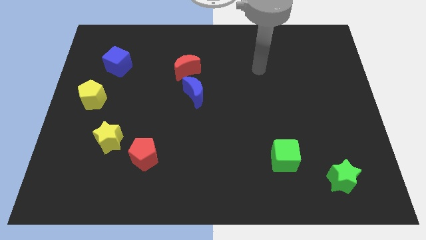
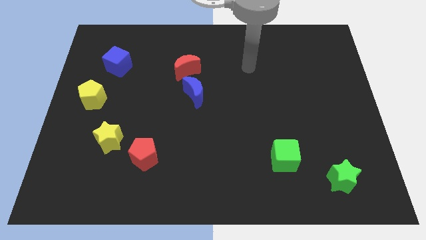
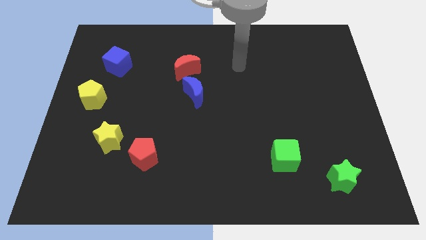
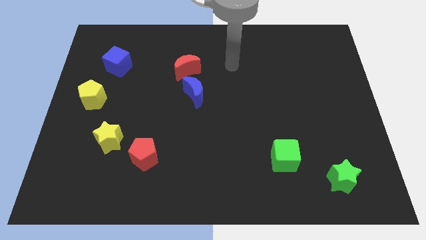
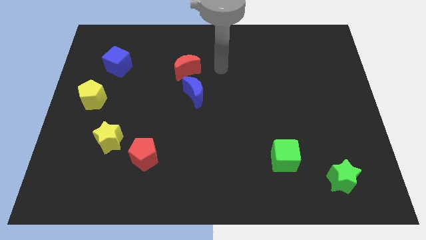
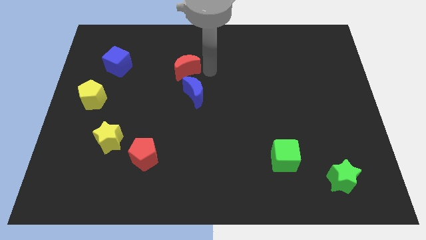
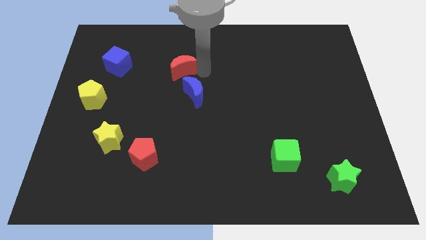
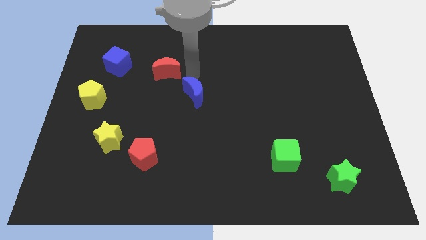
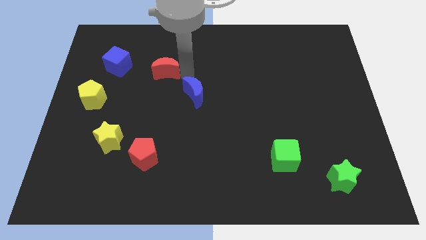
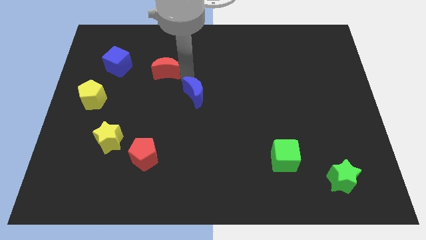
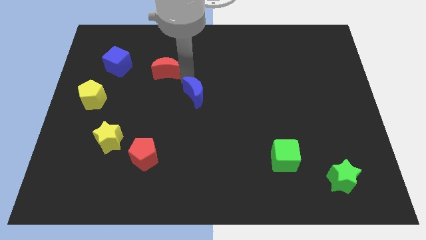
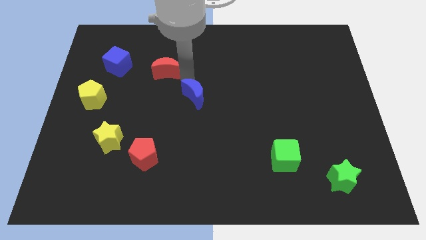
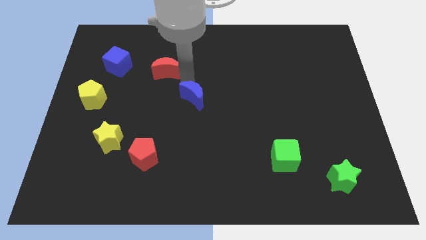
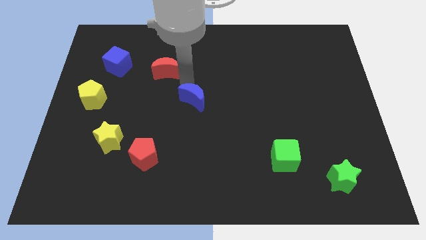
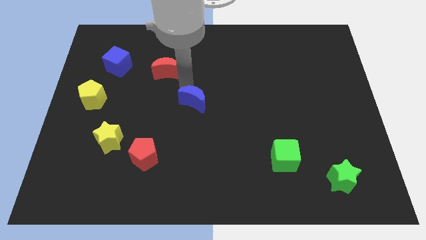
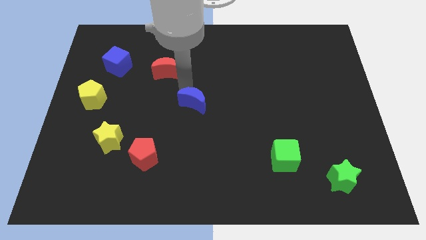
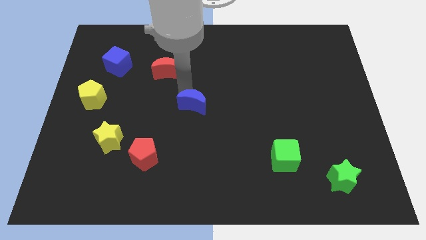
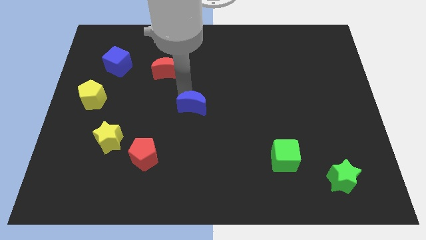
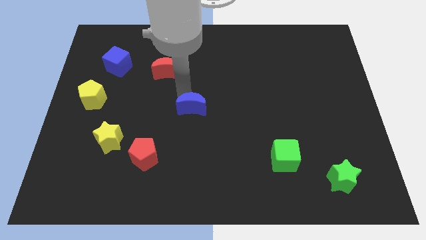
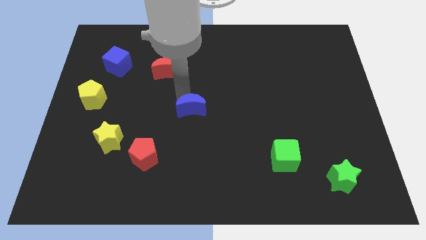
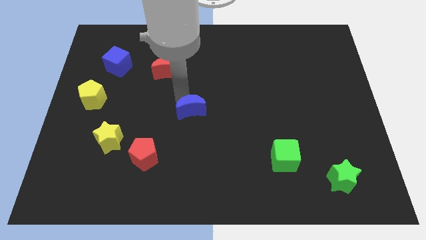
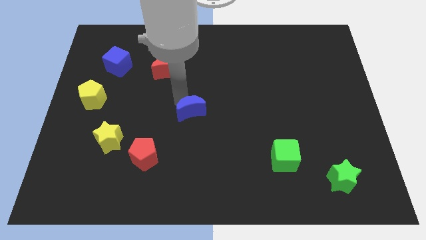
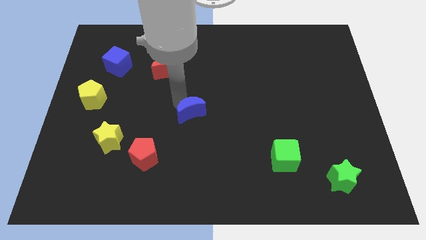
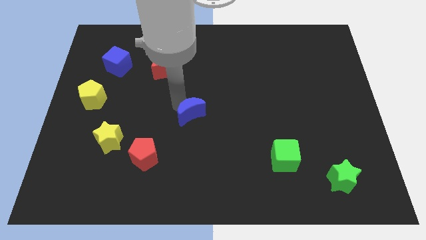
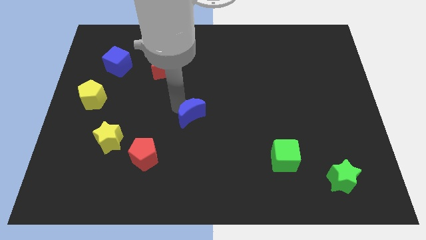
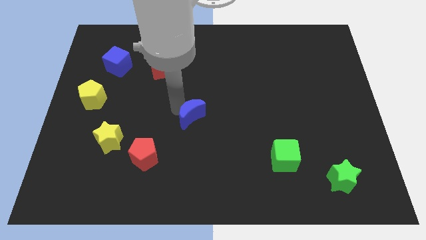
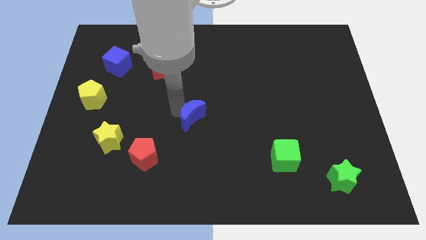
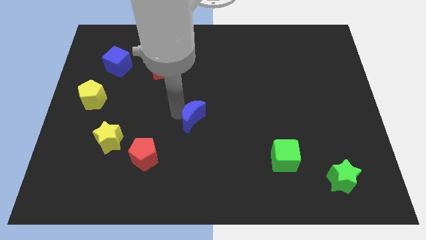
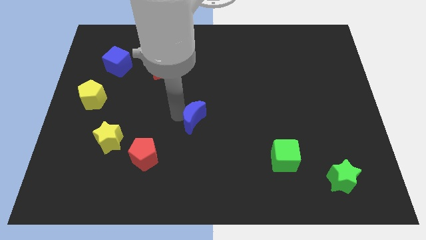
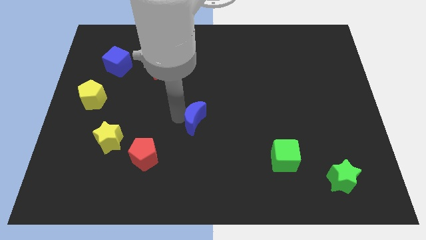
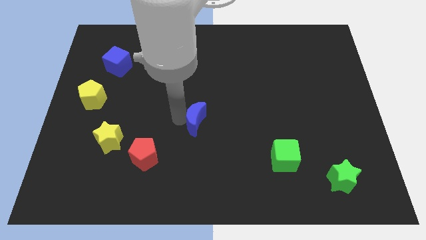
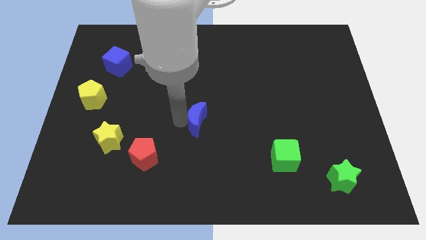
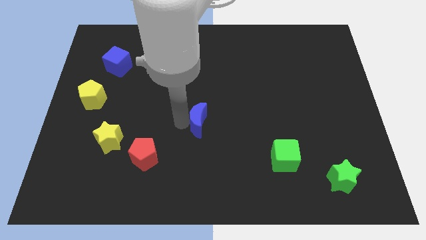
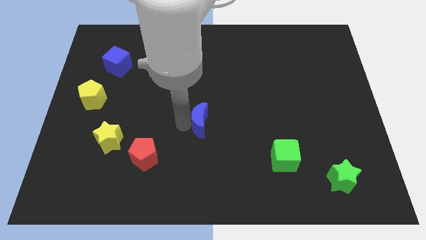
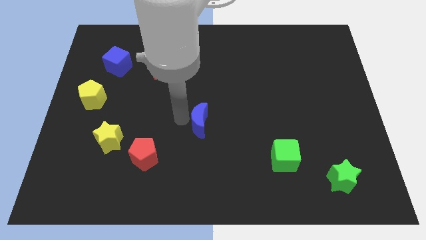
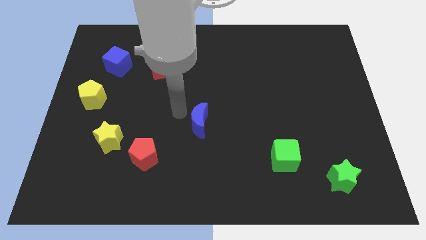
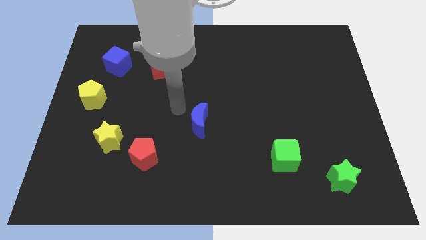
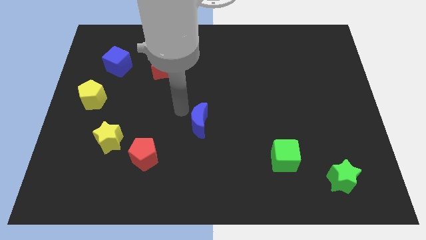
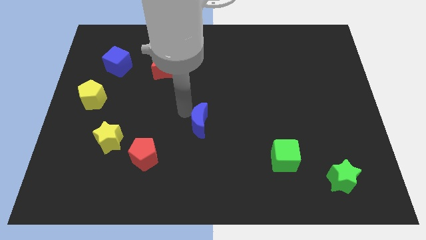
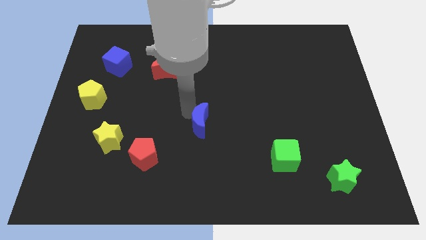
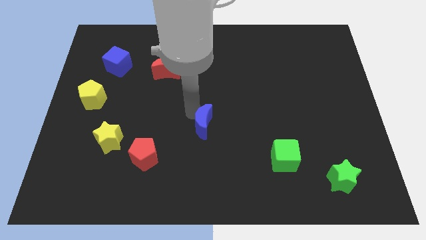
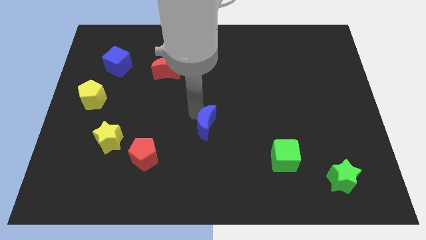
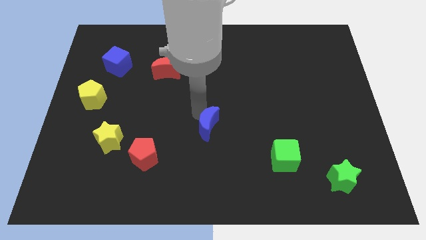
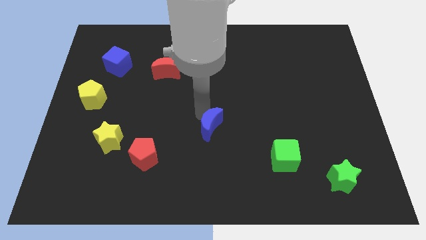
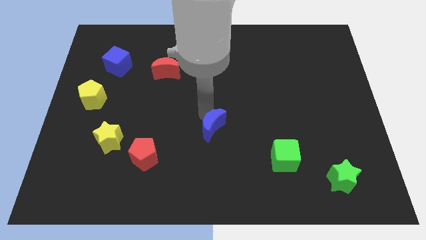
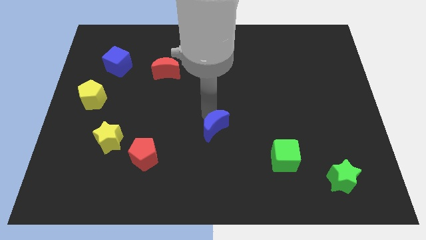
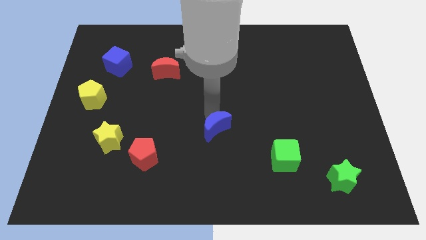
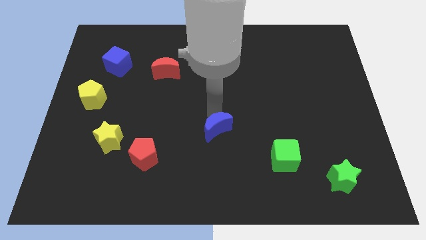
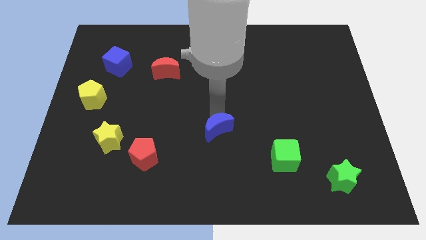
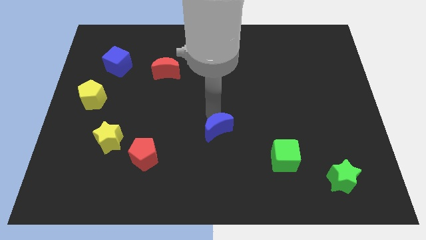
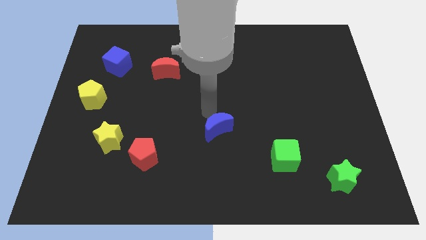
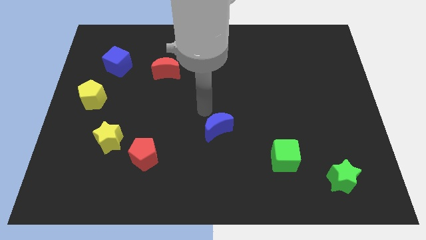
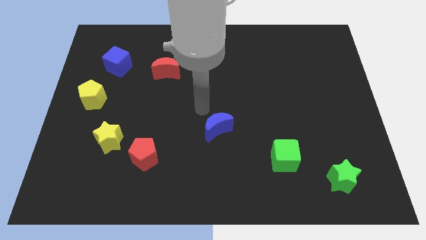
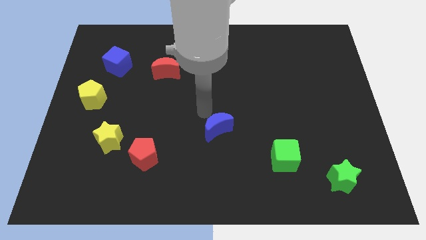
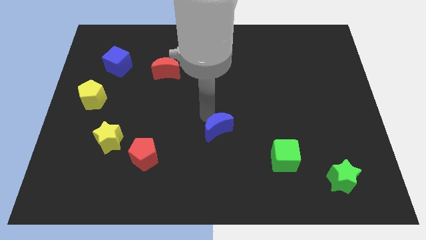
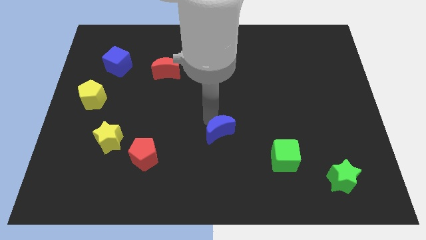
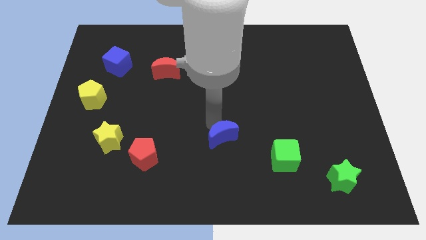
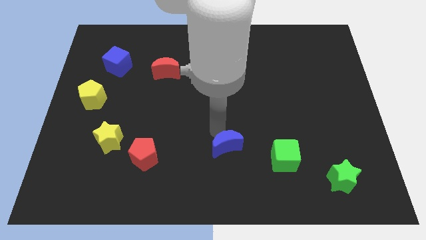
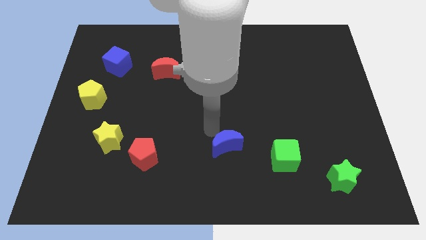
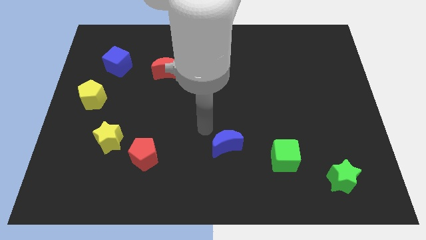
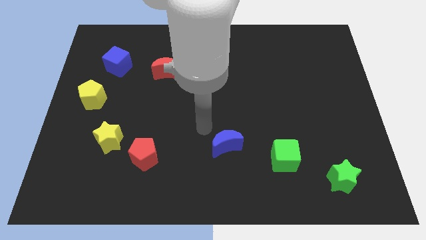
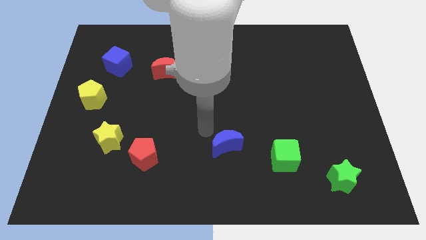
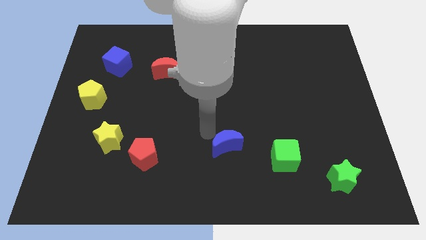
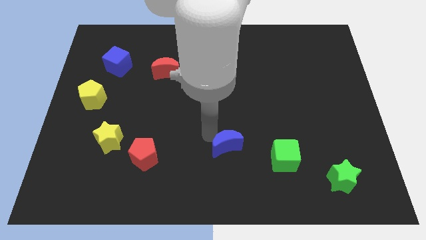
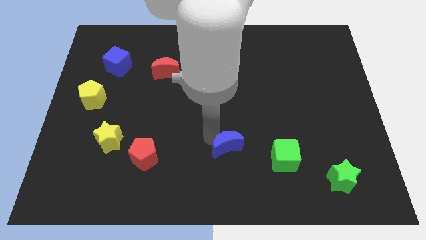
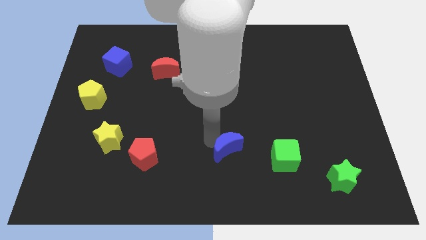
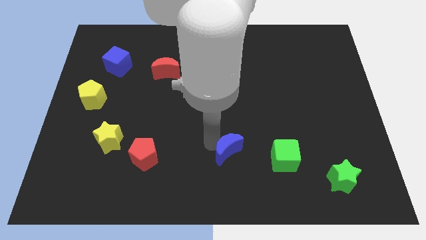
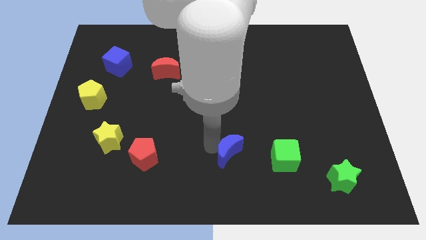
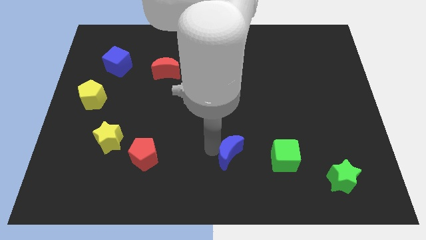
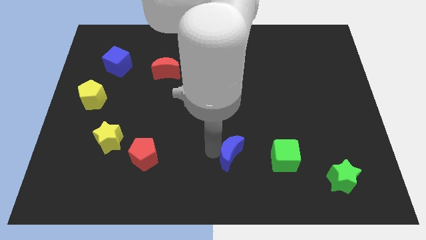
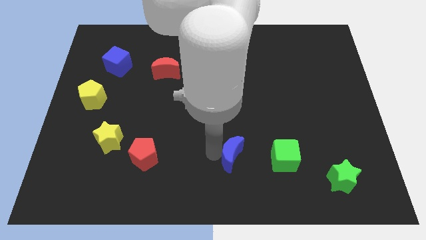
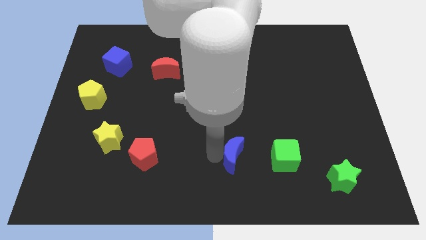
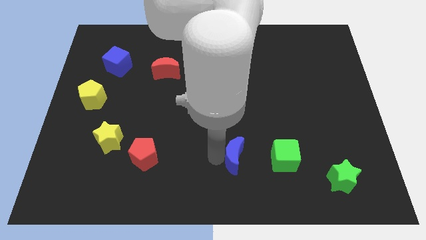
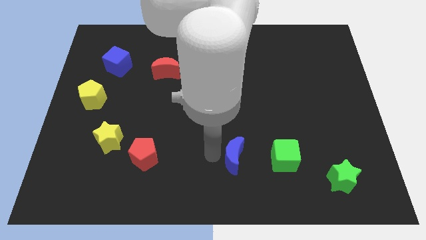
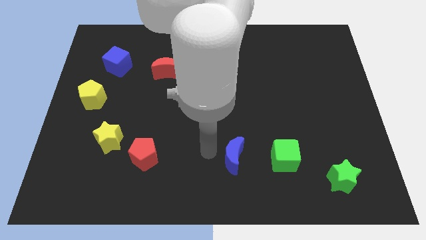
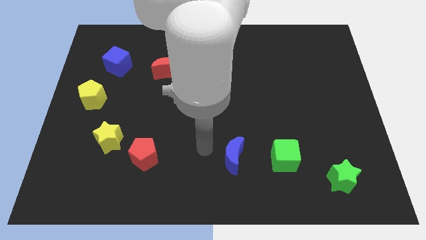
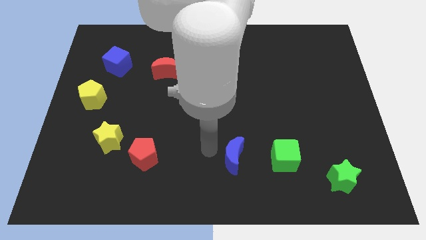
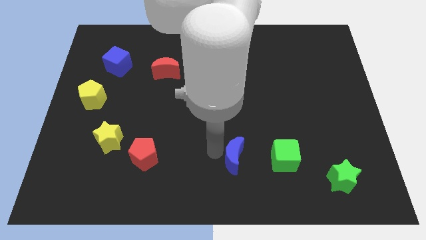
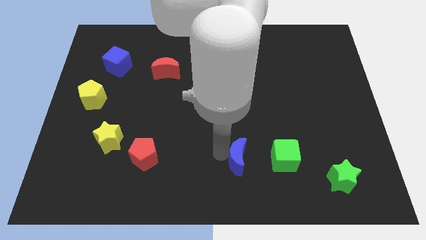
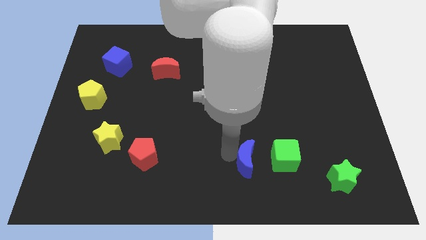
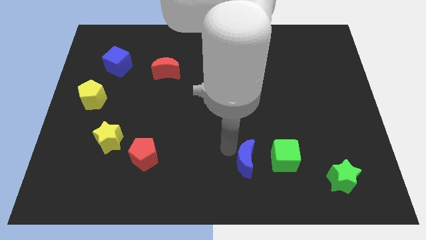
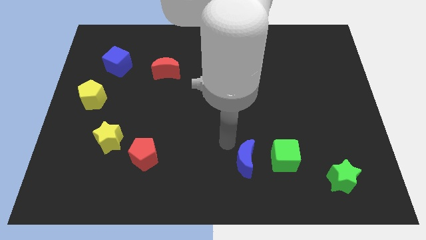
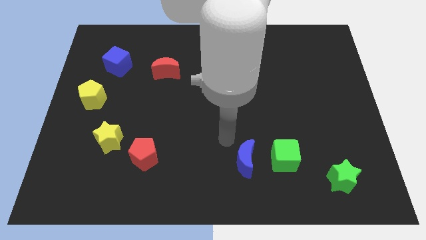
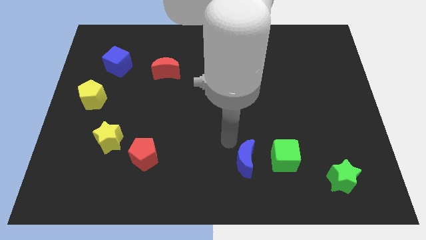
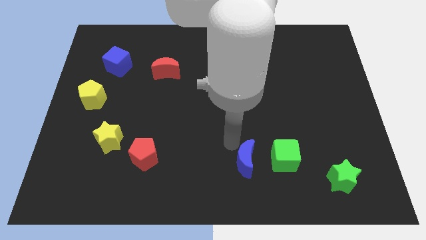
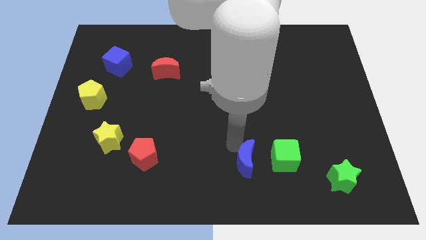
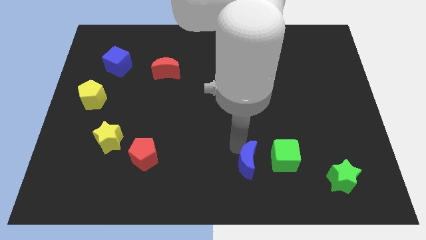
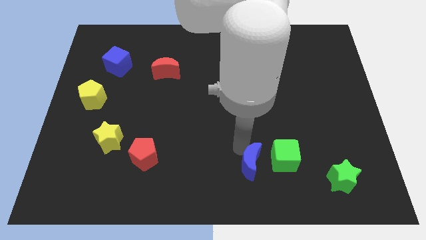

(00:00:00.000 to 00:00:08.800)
push the blue moon to the bottom left of the green cube
